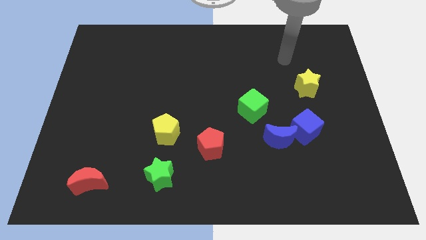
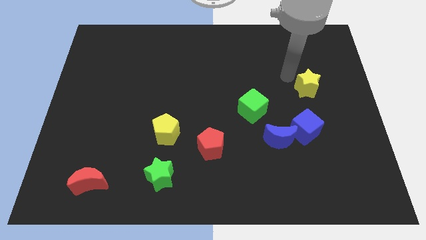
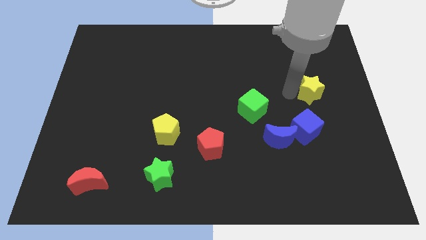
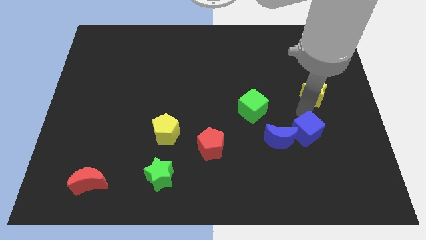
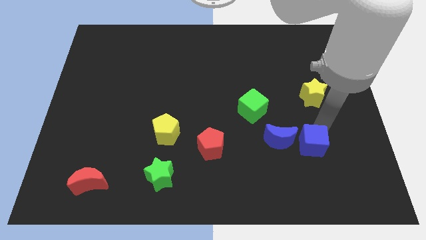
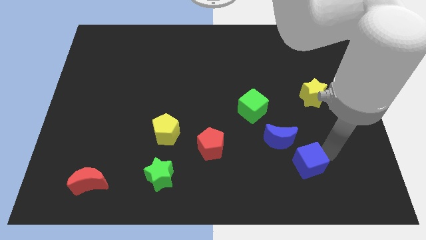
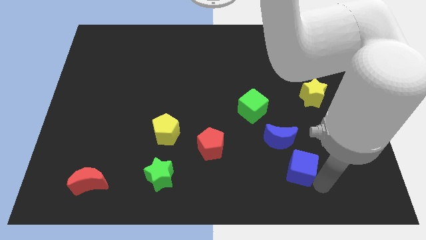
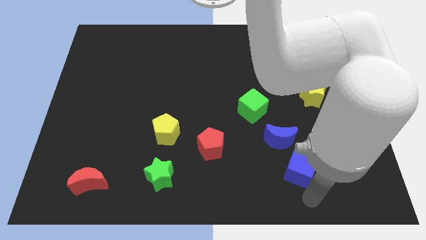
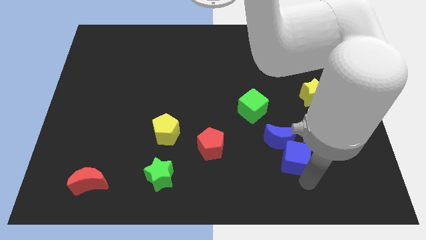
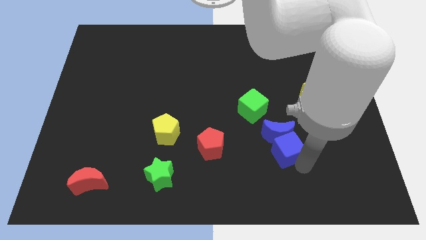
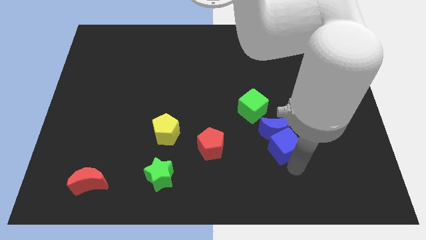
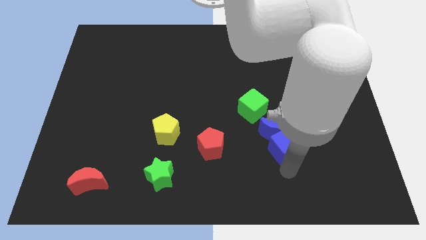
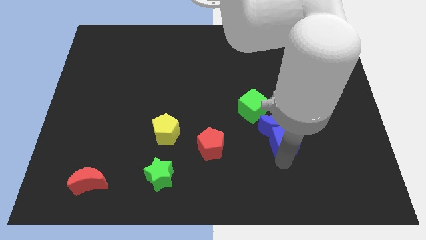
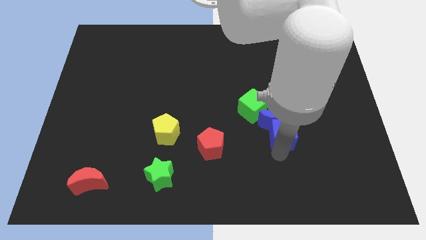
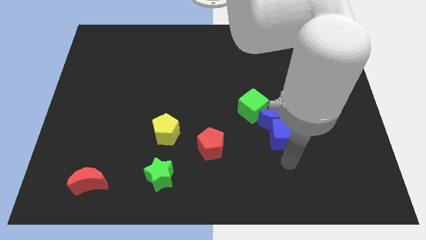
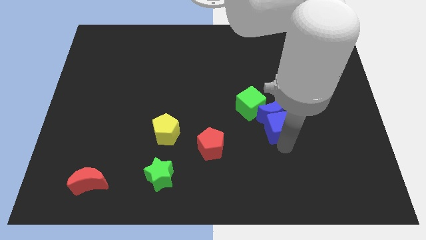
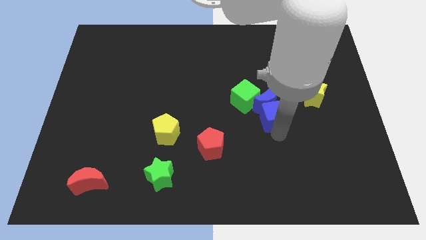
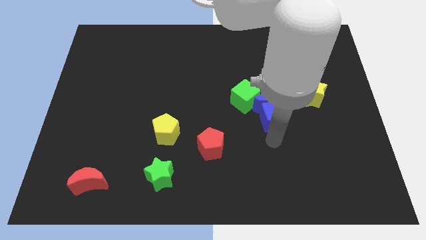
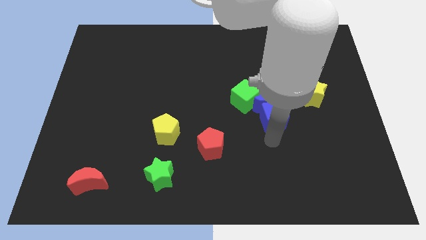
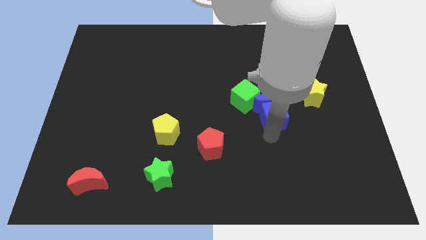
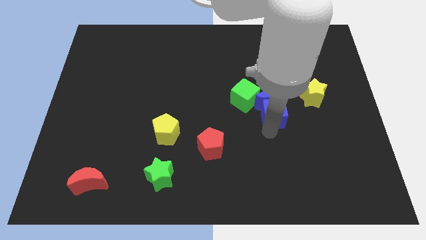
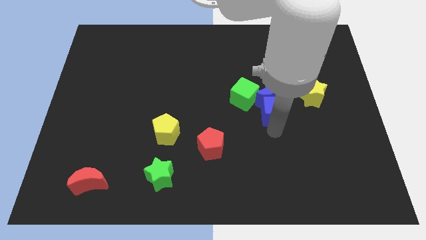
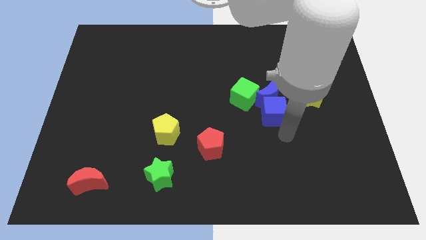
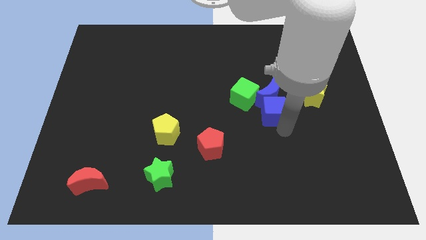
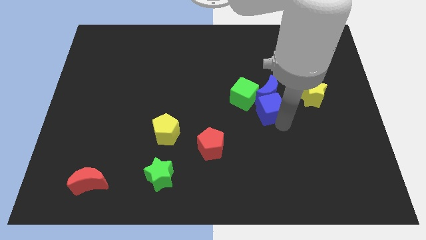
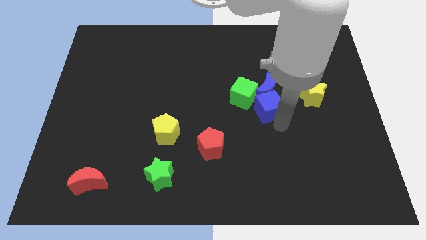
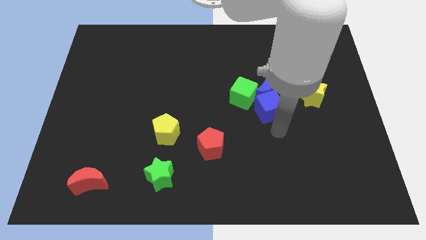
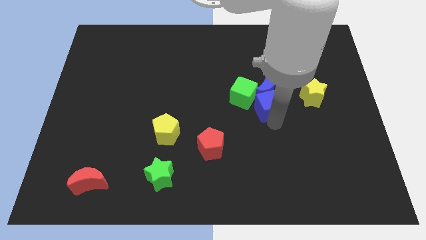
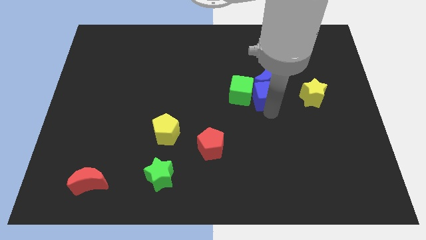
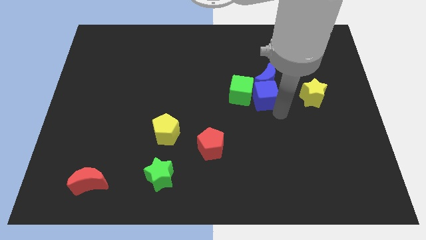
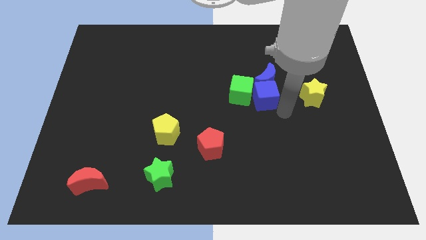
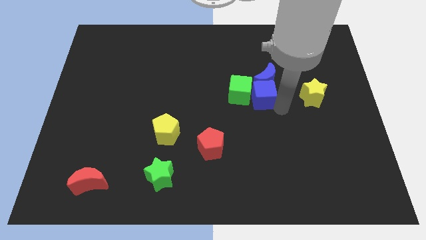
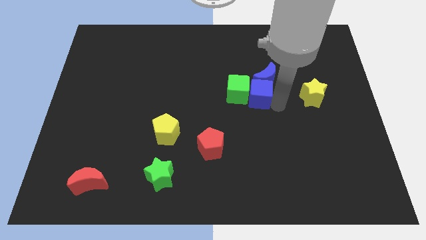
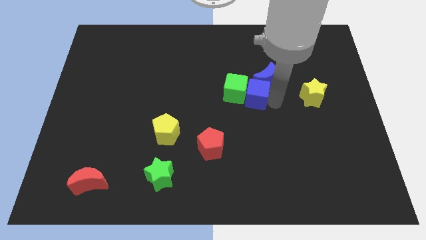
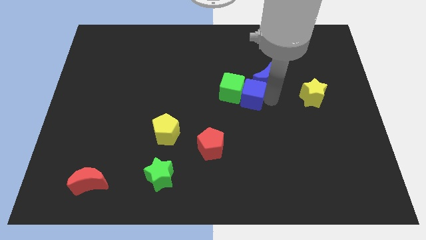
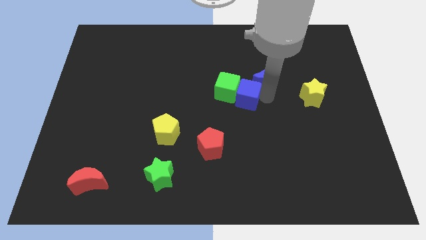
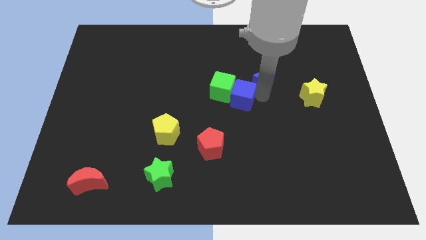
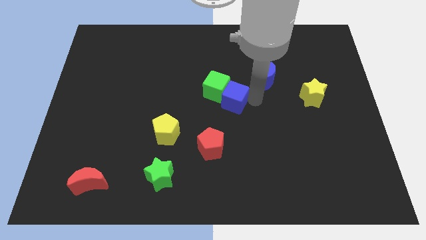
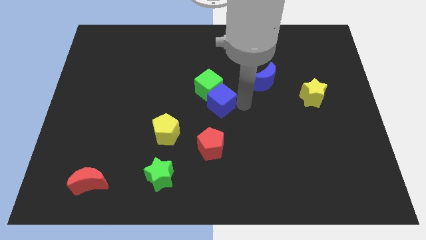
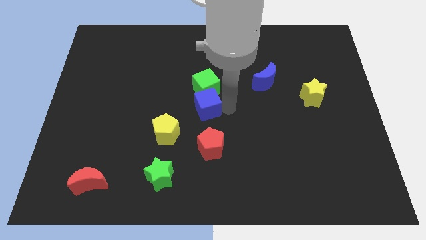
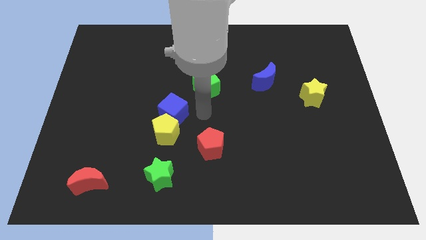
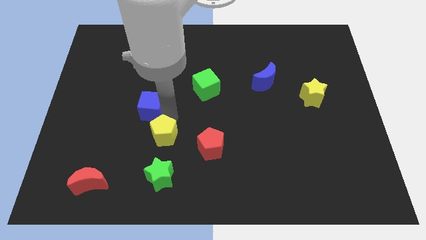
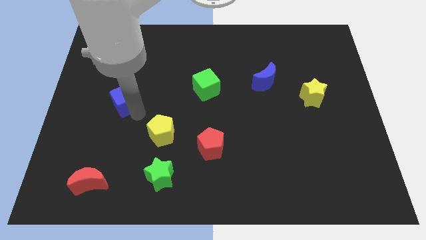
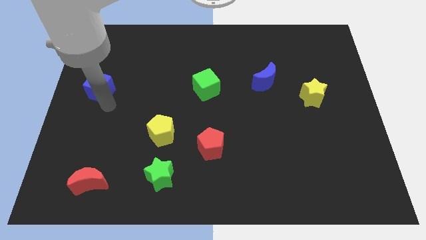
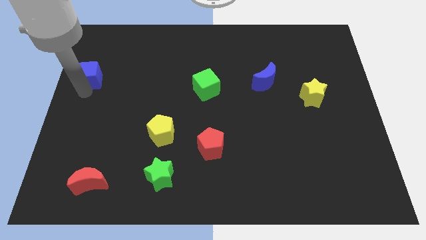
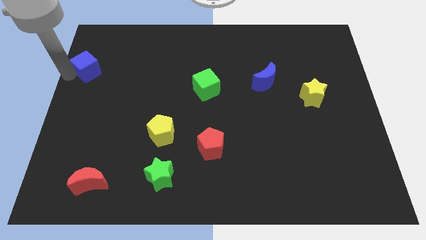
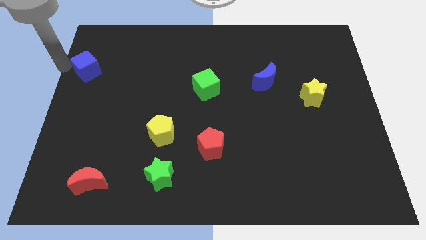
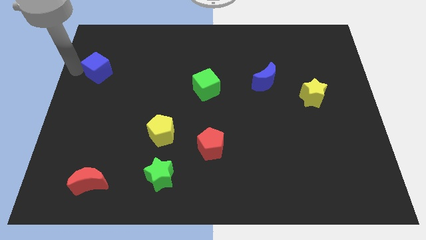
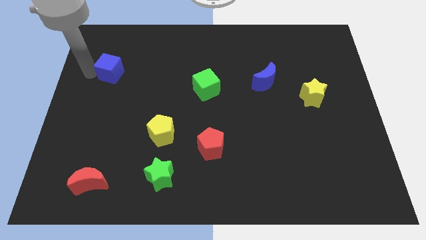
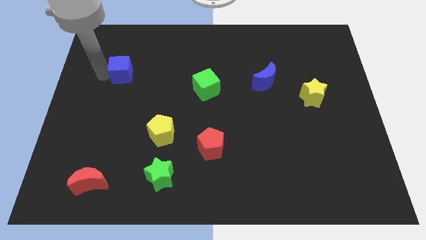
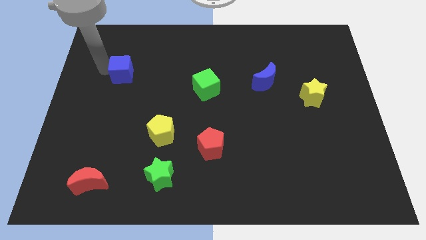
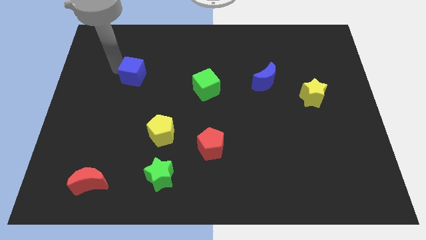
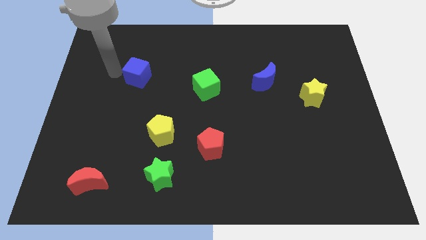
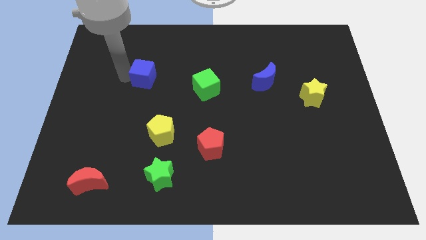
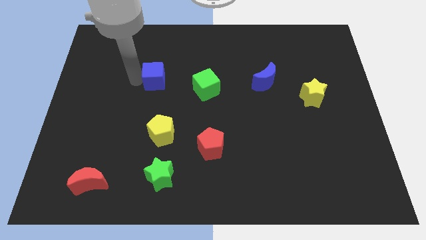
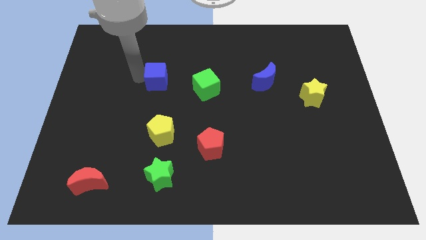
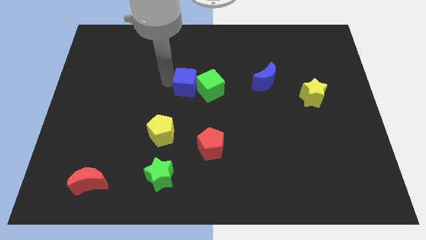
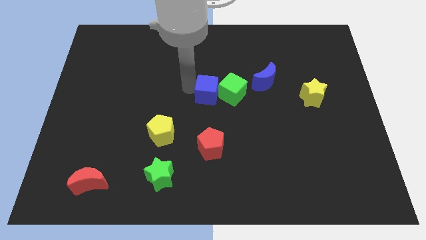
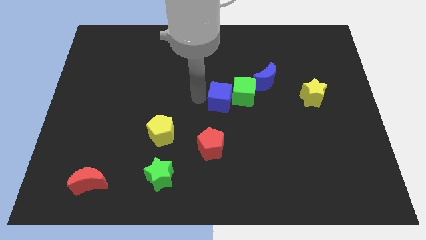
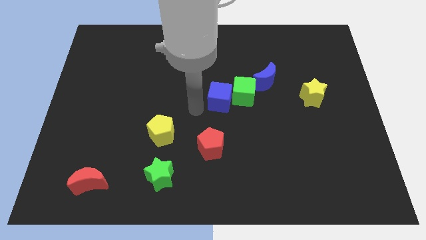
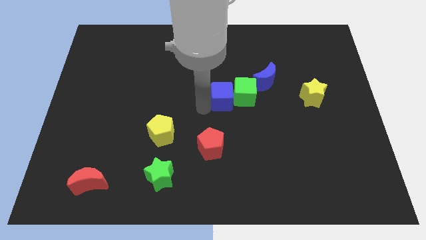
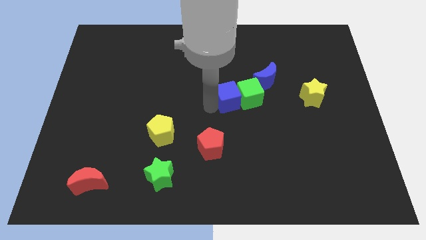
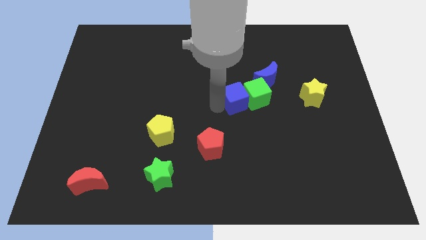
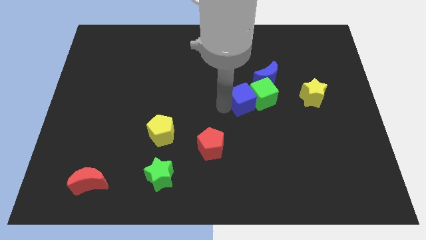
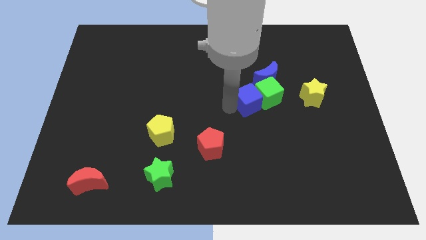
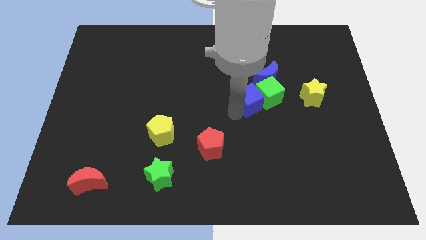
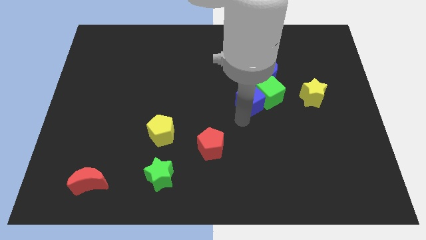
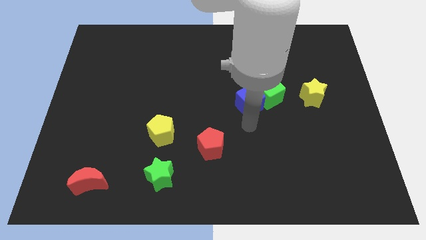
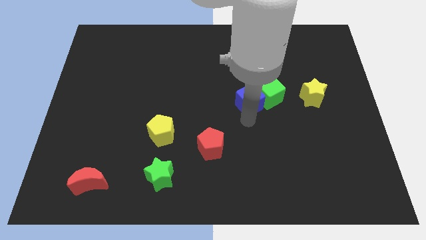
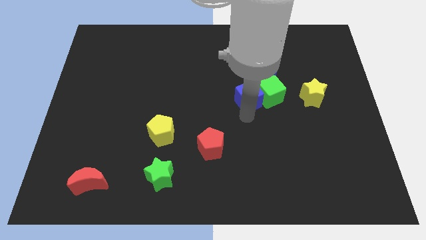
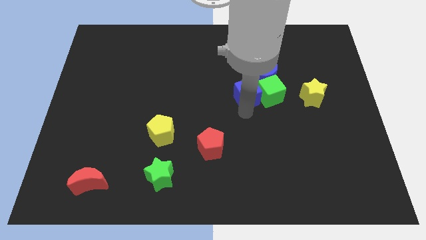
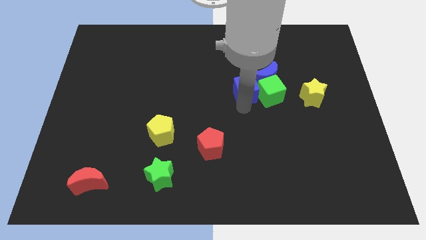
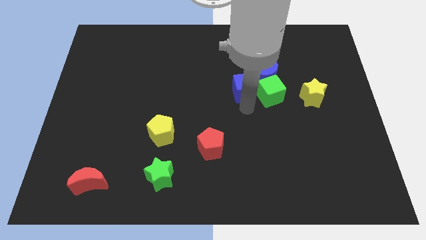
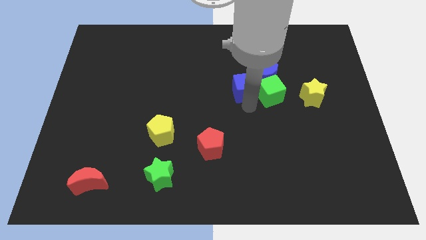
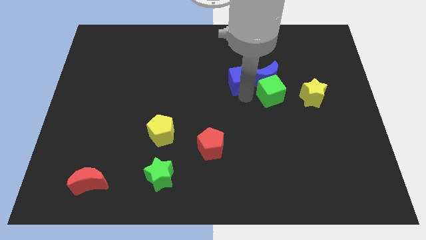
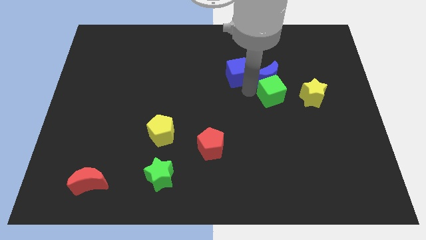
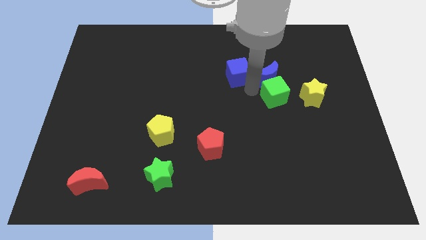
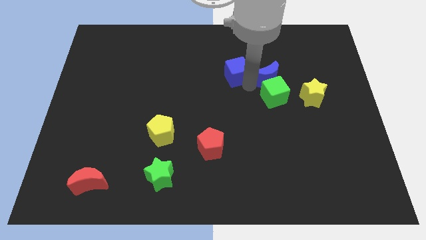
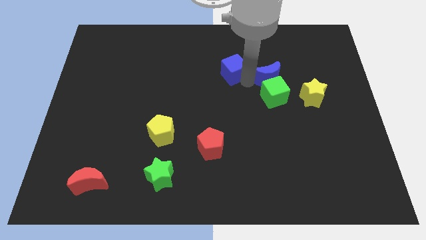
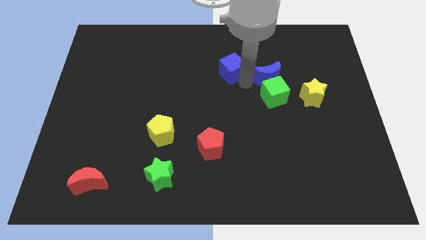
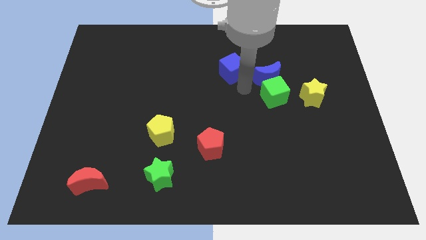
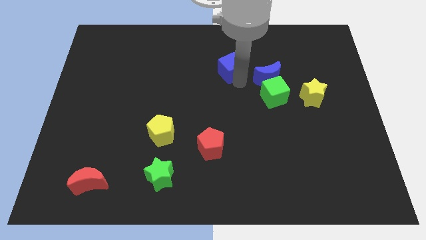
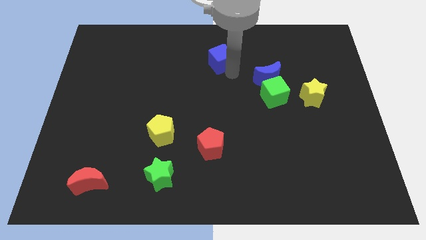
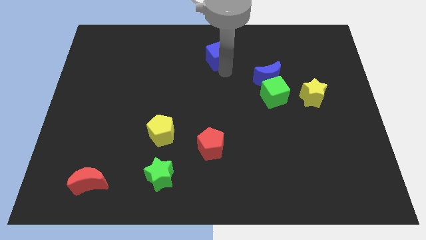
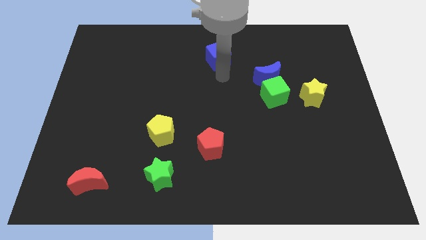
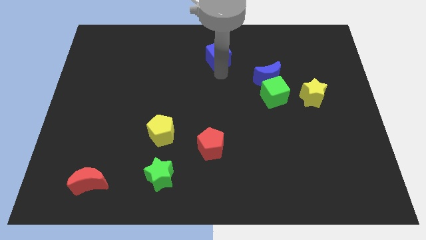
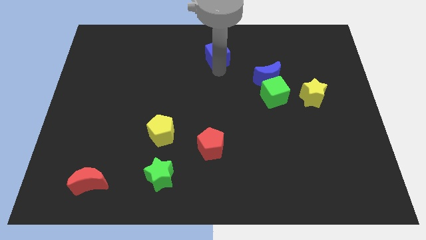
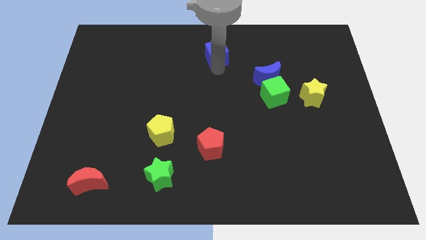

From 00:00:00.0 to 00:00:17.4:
push the blue cube to the top
